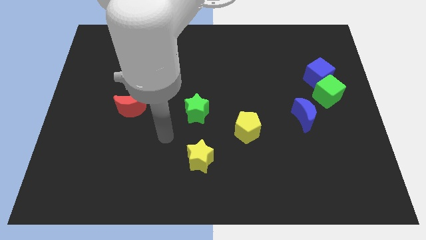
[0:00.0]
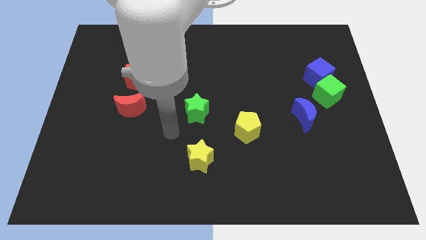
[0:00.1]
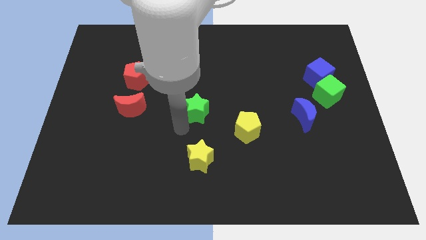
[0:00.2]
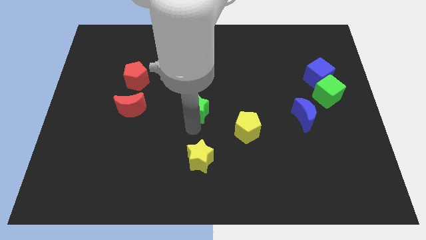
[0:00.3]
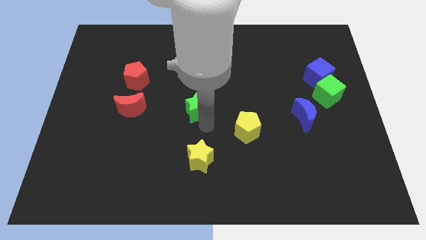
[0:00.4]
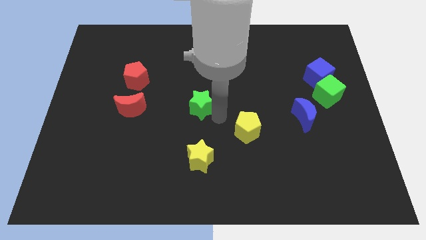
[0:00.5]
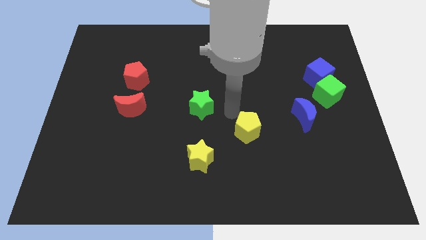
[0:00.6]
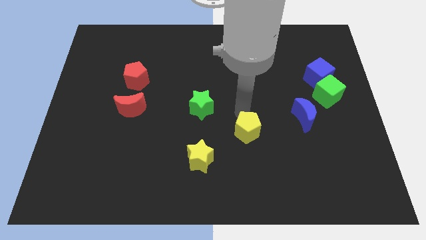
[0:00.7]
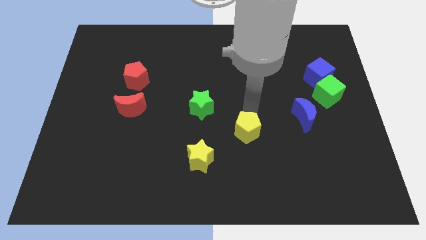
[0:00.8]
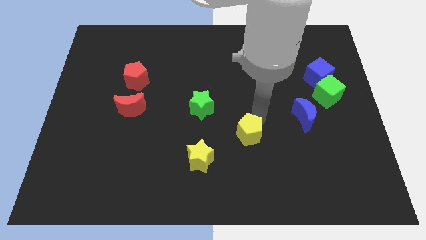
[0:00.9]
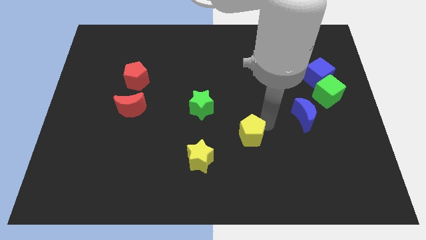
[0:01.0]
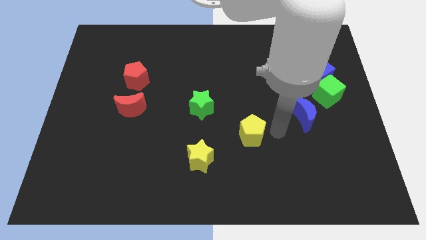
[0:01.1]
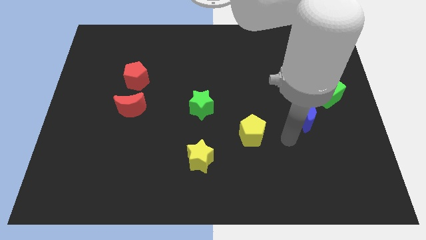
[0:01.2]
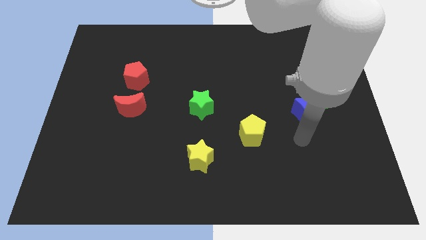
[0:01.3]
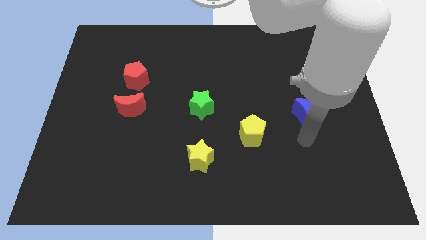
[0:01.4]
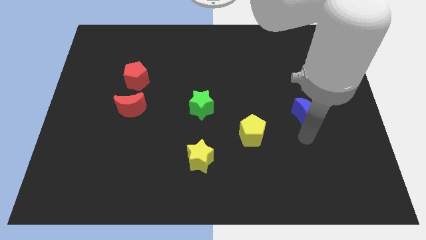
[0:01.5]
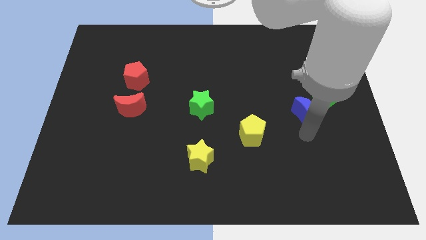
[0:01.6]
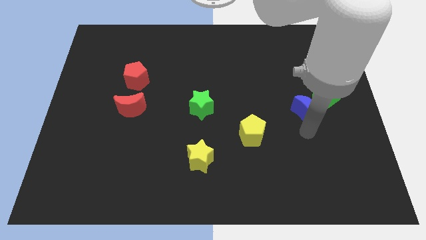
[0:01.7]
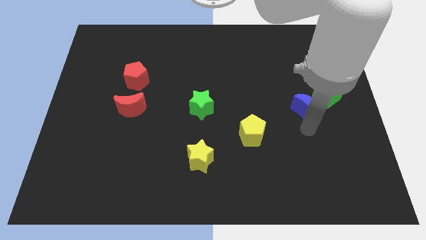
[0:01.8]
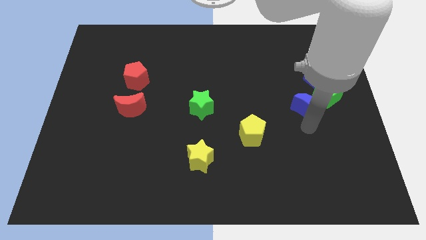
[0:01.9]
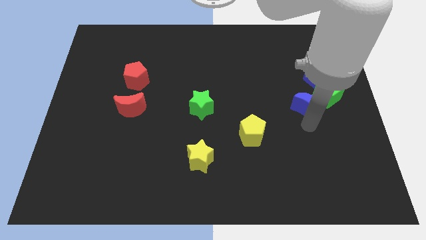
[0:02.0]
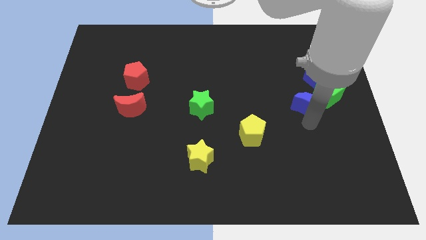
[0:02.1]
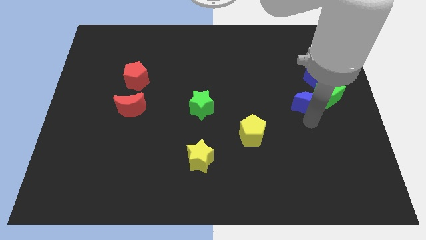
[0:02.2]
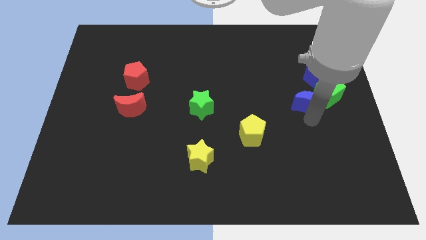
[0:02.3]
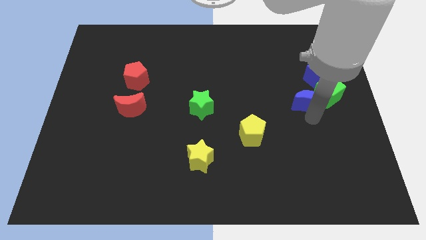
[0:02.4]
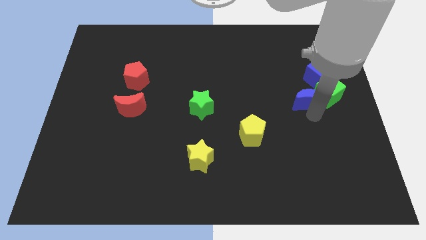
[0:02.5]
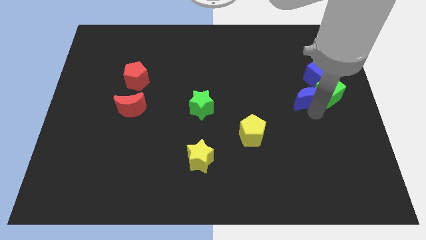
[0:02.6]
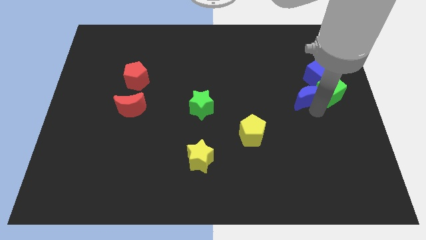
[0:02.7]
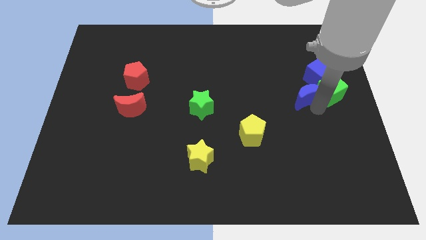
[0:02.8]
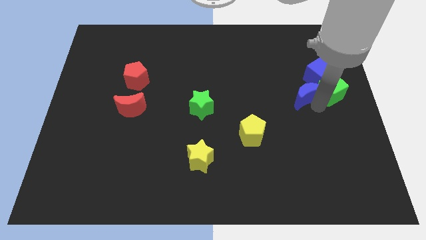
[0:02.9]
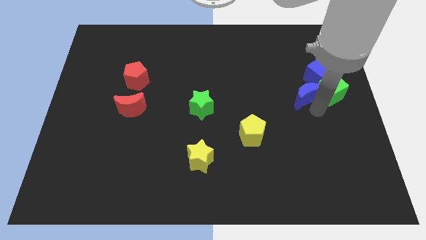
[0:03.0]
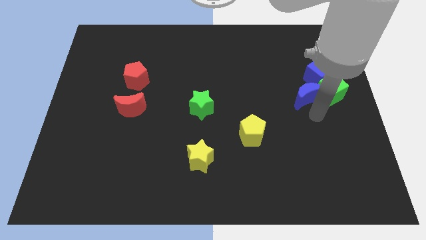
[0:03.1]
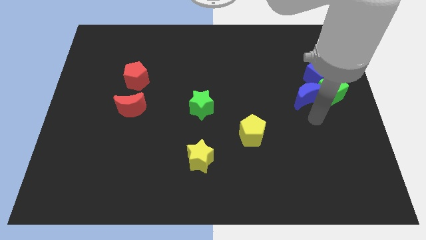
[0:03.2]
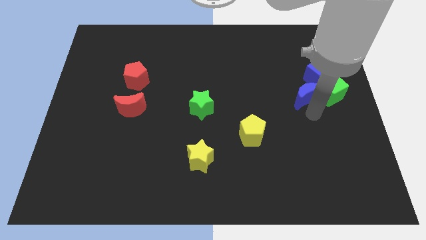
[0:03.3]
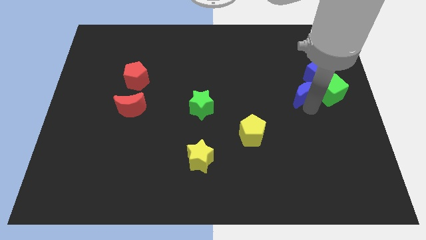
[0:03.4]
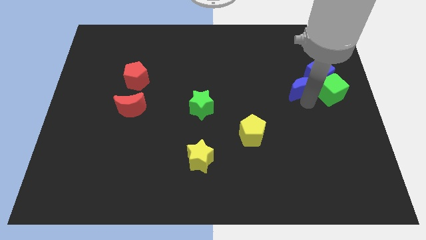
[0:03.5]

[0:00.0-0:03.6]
slightly slide the blue moon up

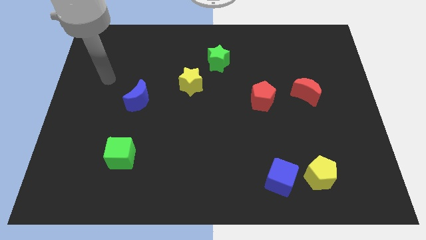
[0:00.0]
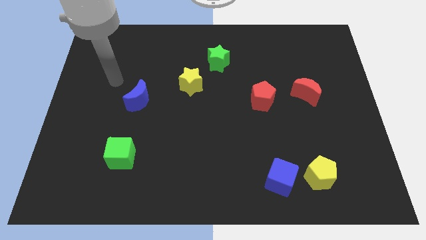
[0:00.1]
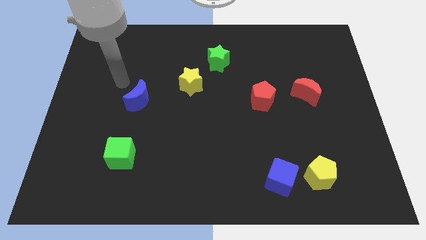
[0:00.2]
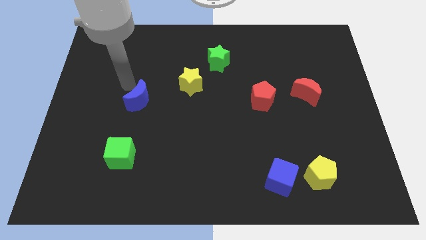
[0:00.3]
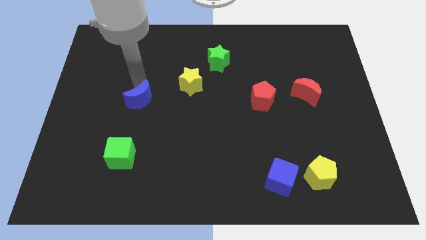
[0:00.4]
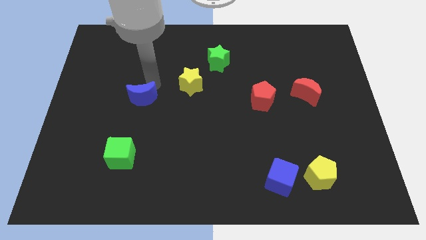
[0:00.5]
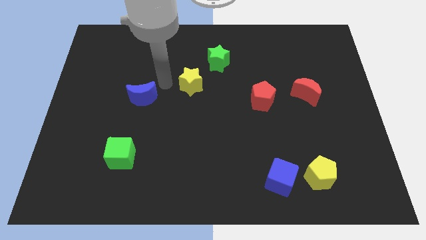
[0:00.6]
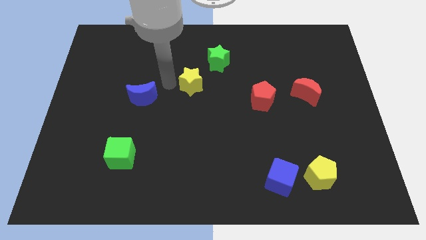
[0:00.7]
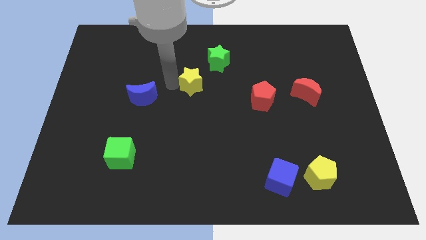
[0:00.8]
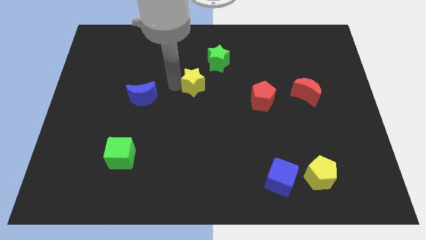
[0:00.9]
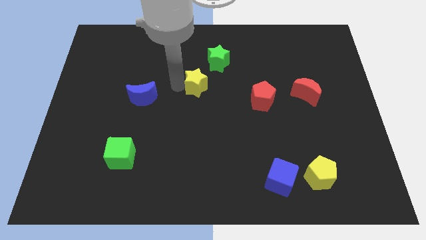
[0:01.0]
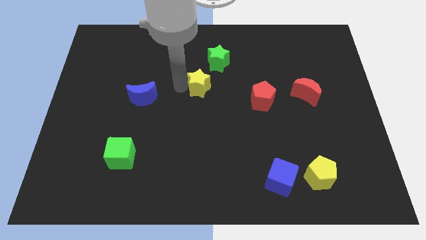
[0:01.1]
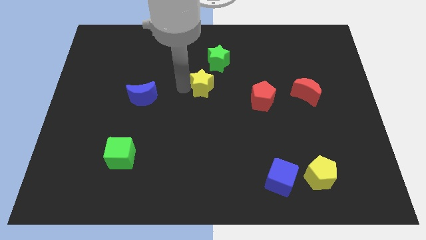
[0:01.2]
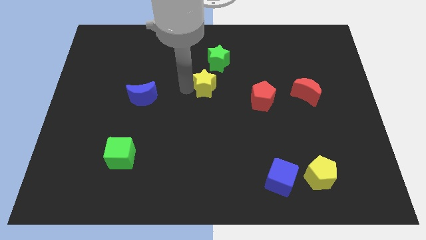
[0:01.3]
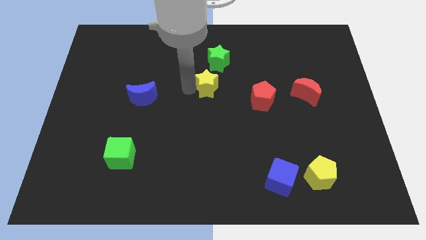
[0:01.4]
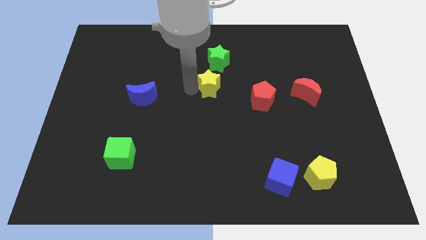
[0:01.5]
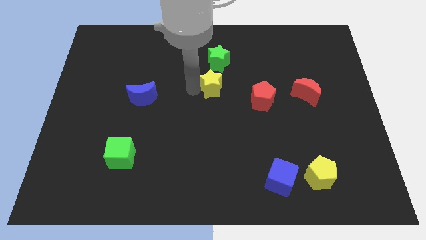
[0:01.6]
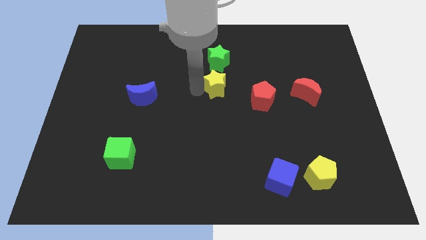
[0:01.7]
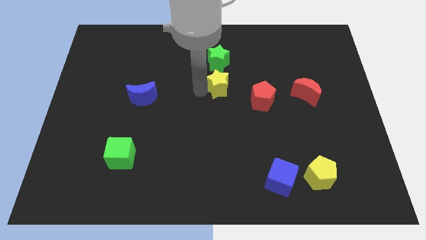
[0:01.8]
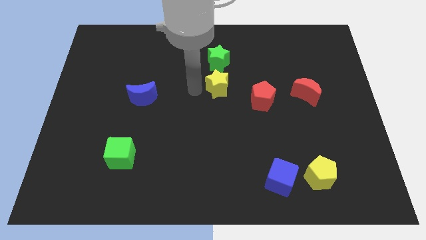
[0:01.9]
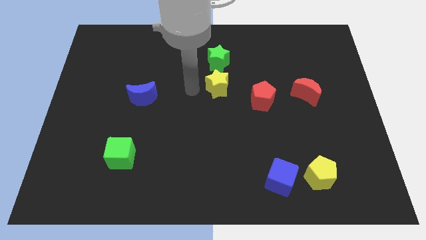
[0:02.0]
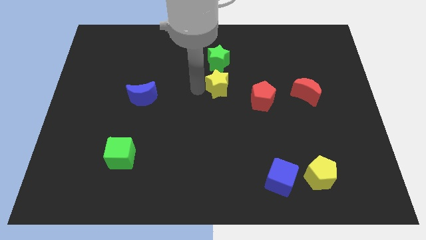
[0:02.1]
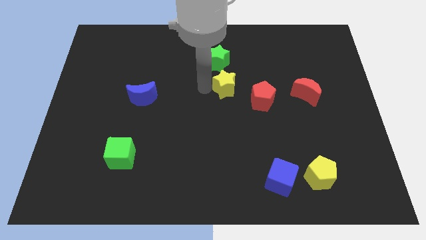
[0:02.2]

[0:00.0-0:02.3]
slightly push the yellow star right

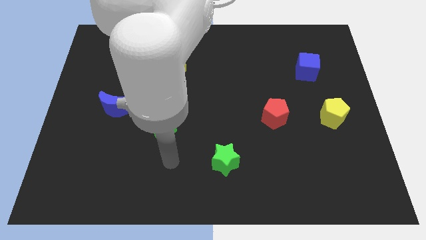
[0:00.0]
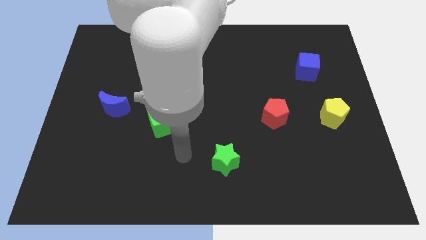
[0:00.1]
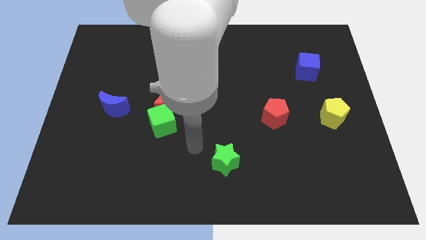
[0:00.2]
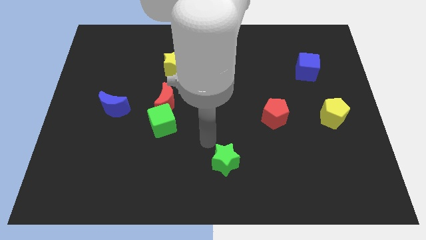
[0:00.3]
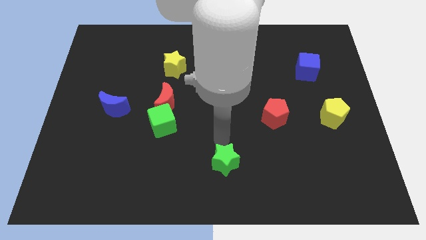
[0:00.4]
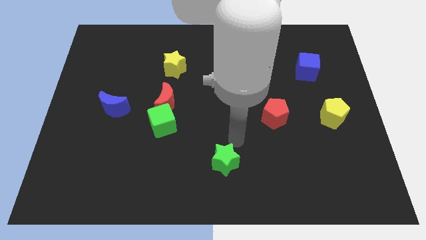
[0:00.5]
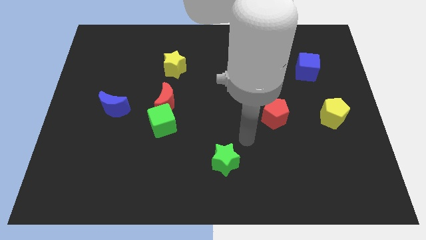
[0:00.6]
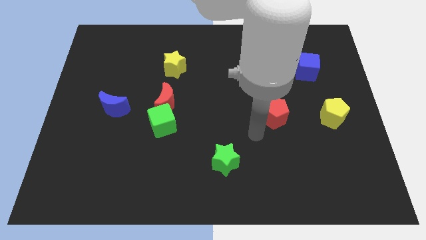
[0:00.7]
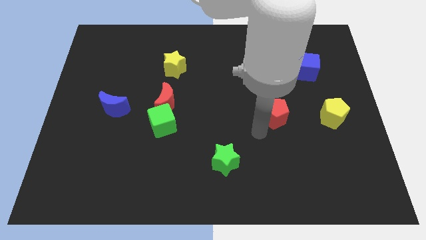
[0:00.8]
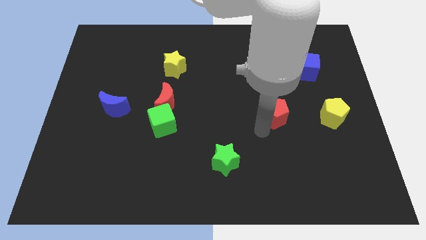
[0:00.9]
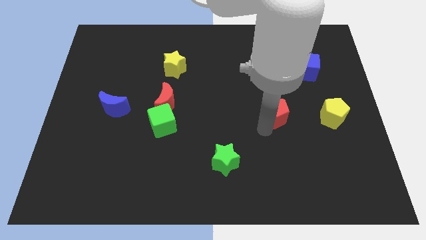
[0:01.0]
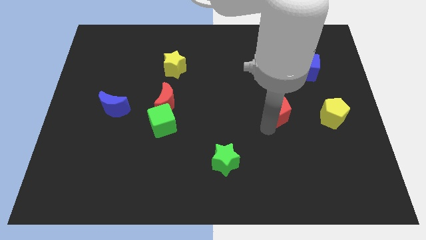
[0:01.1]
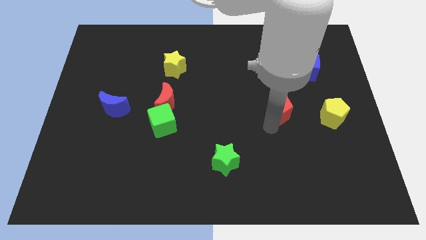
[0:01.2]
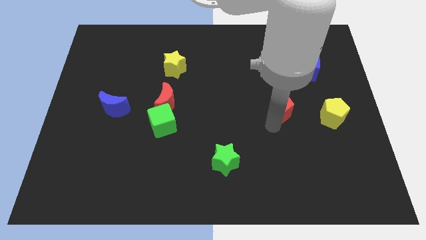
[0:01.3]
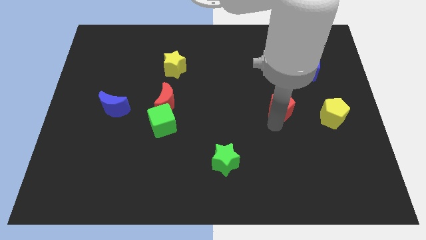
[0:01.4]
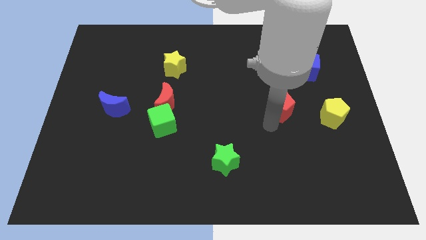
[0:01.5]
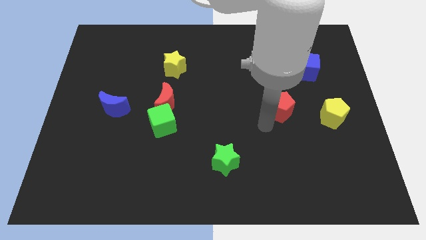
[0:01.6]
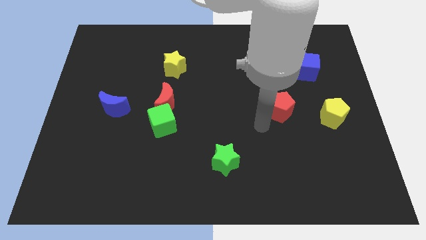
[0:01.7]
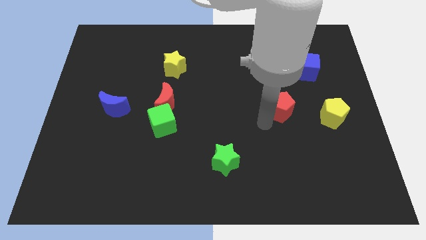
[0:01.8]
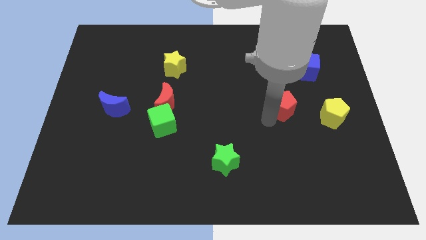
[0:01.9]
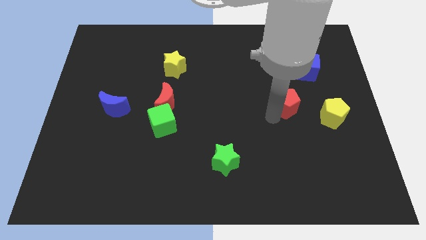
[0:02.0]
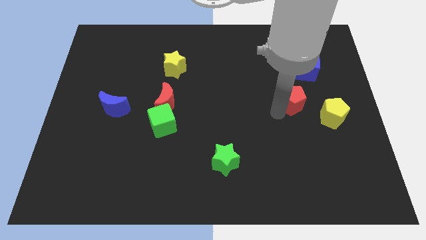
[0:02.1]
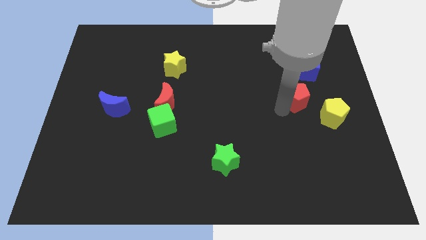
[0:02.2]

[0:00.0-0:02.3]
push the red pentagon a little bit up and then right
